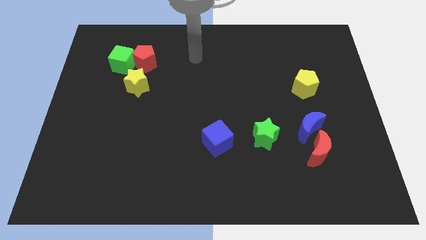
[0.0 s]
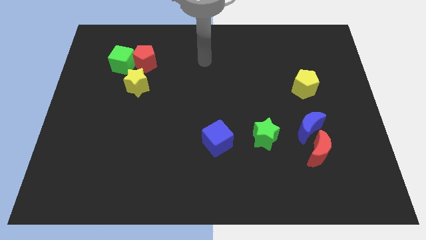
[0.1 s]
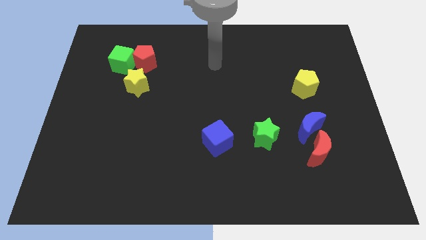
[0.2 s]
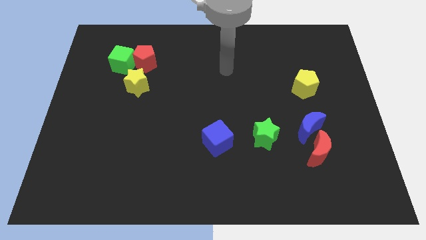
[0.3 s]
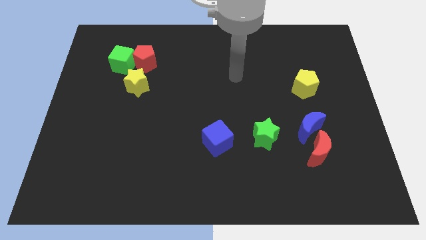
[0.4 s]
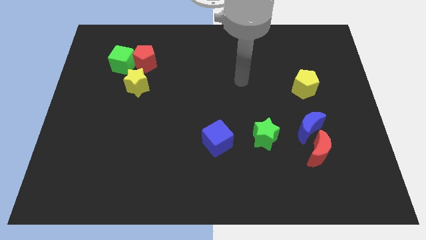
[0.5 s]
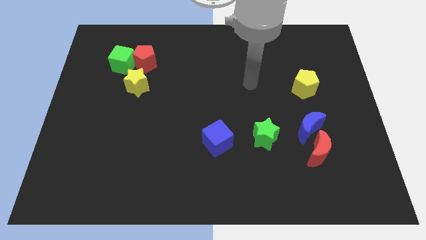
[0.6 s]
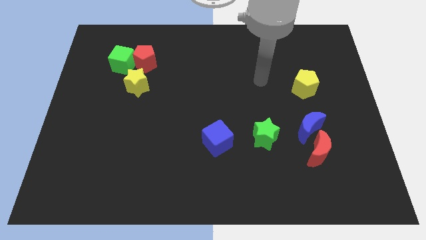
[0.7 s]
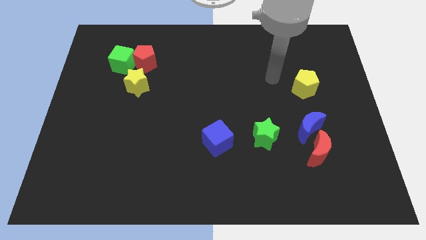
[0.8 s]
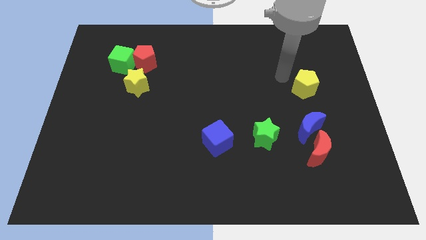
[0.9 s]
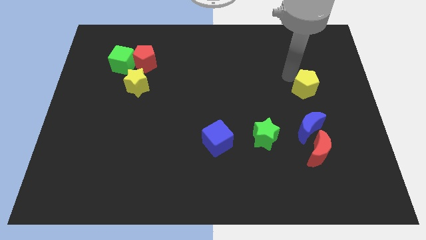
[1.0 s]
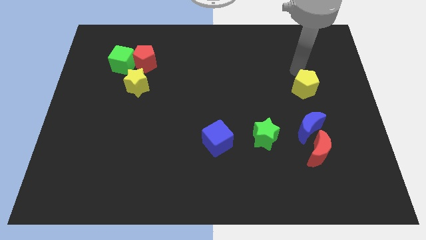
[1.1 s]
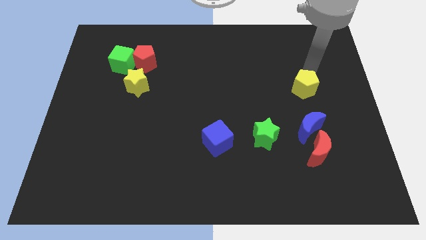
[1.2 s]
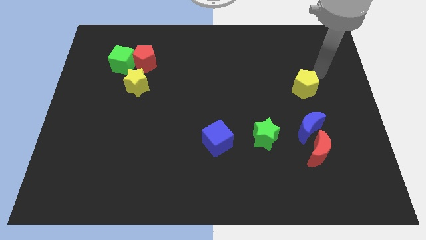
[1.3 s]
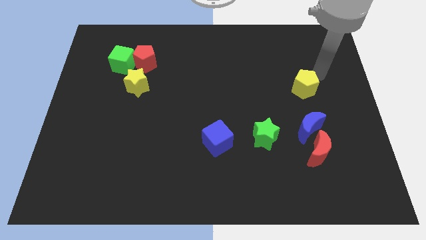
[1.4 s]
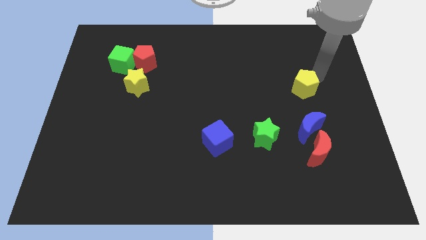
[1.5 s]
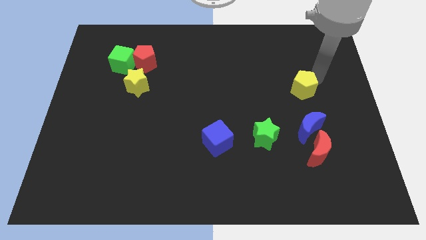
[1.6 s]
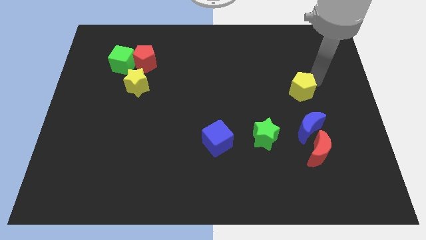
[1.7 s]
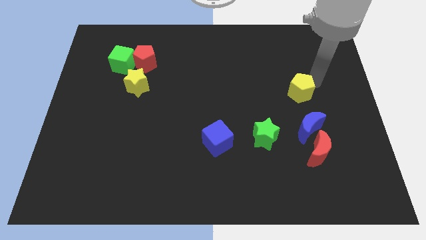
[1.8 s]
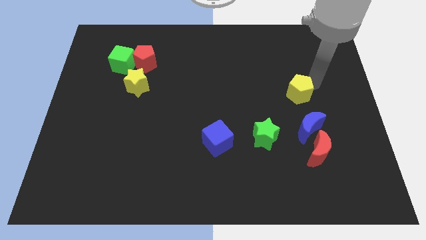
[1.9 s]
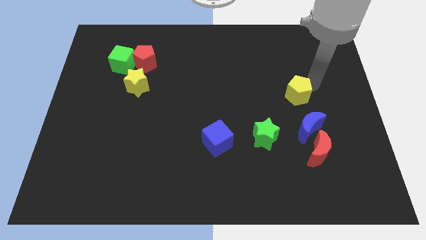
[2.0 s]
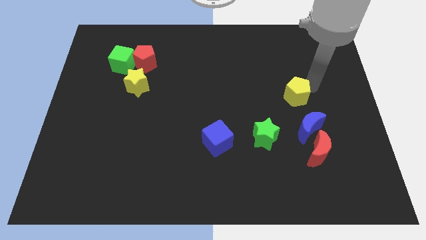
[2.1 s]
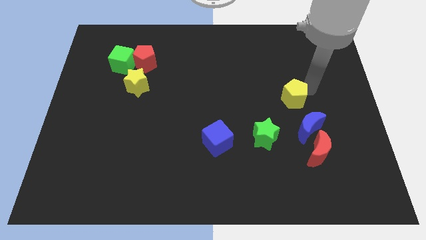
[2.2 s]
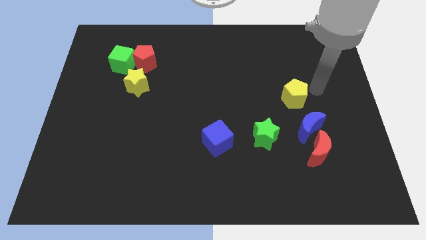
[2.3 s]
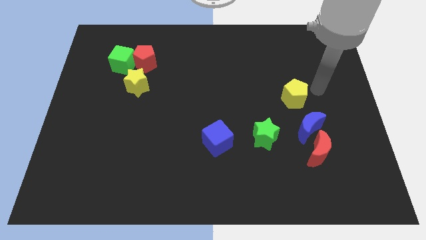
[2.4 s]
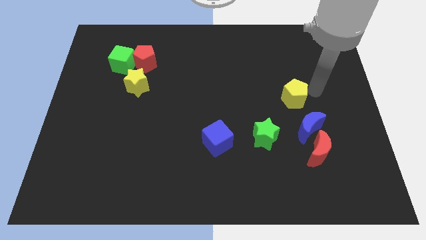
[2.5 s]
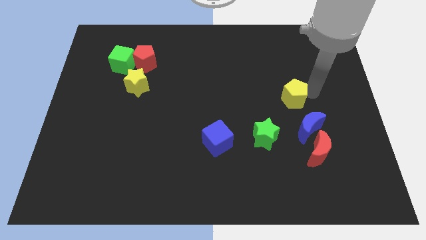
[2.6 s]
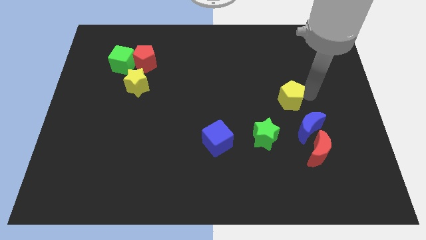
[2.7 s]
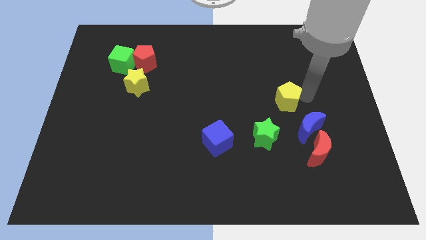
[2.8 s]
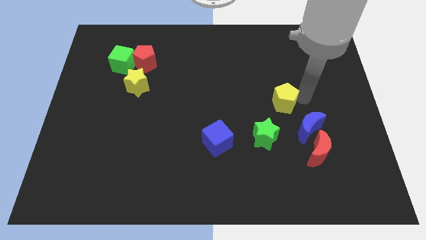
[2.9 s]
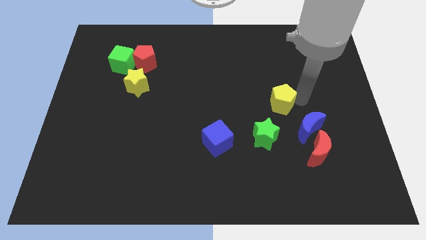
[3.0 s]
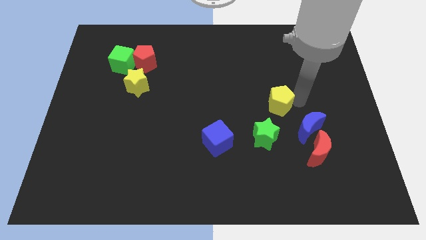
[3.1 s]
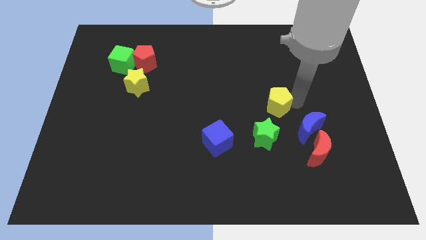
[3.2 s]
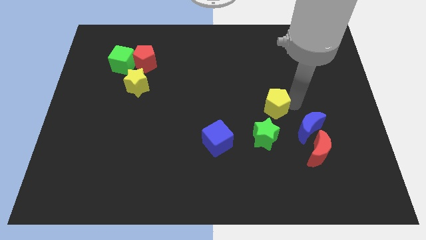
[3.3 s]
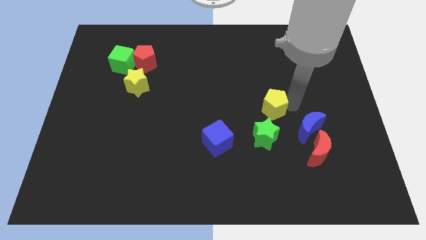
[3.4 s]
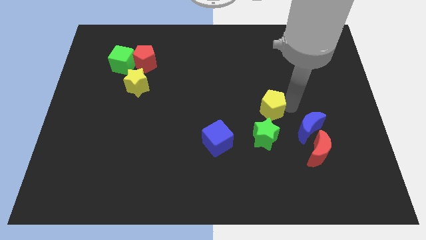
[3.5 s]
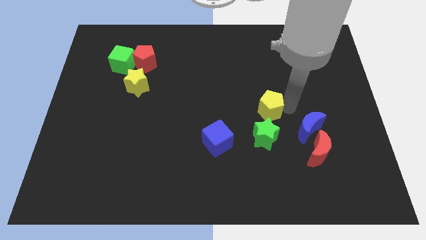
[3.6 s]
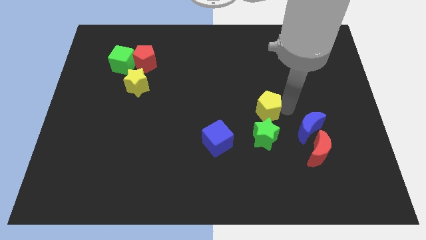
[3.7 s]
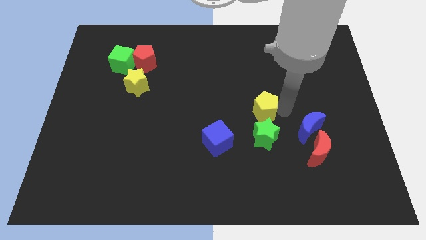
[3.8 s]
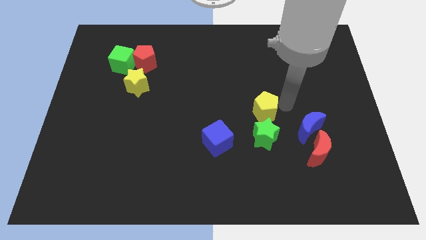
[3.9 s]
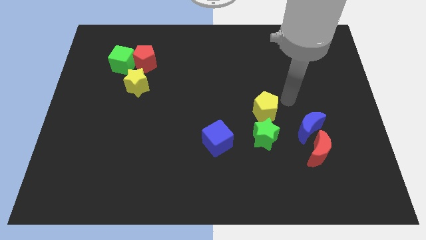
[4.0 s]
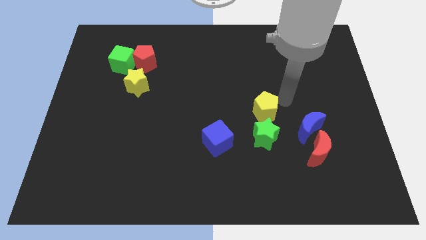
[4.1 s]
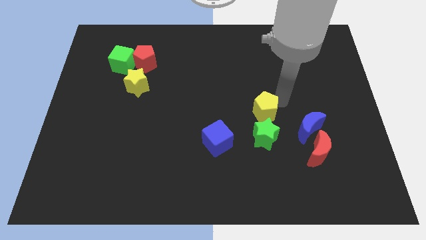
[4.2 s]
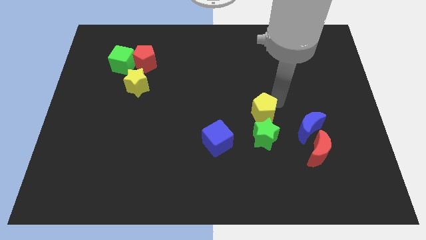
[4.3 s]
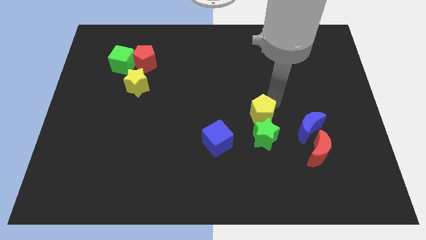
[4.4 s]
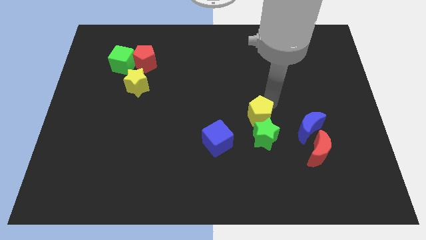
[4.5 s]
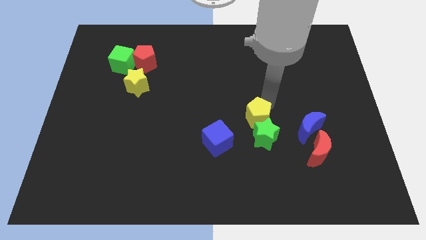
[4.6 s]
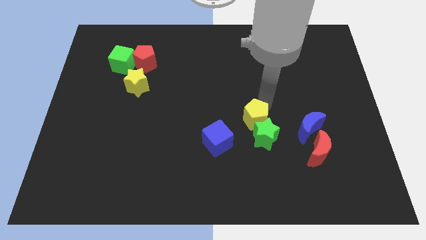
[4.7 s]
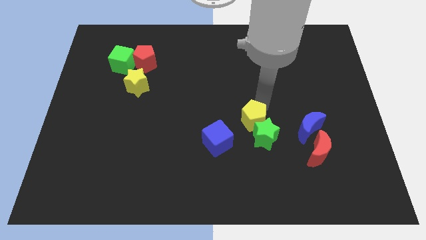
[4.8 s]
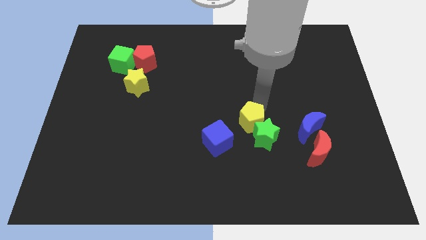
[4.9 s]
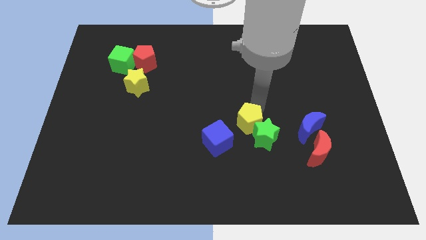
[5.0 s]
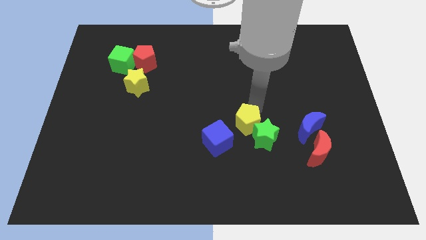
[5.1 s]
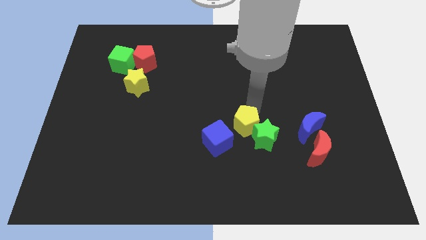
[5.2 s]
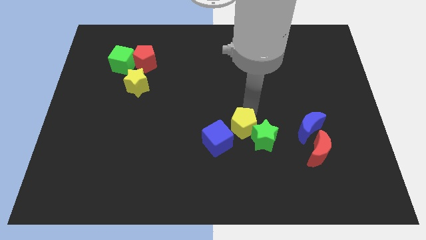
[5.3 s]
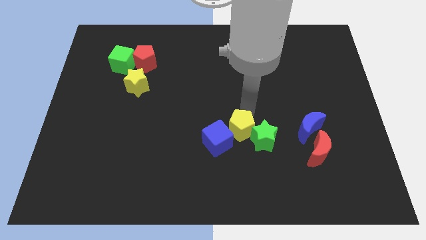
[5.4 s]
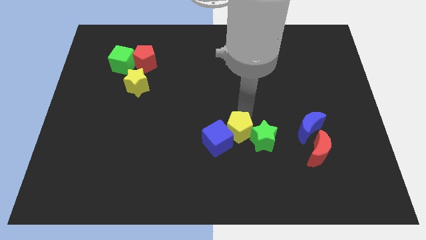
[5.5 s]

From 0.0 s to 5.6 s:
slide the yellow pentagon close to the blue cube

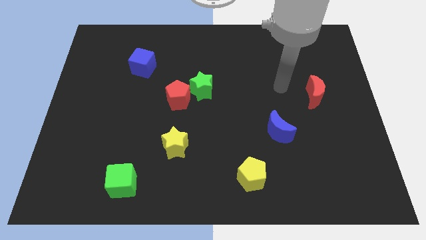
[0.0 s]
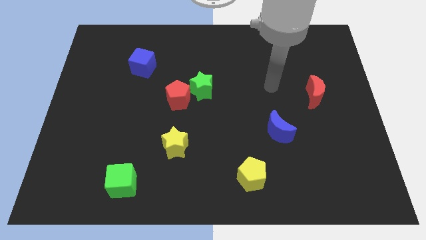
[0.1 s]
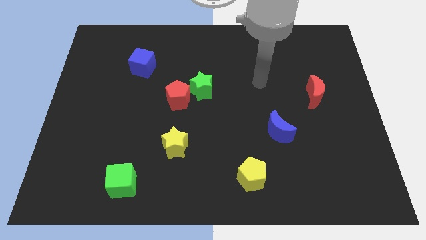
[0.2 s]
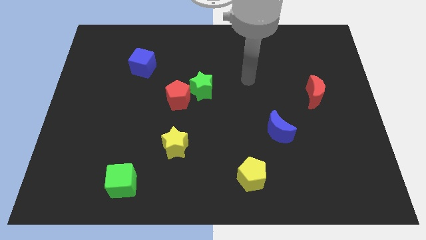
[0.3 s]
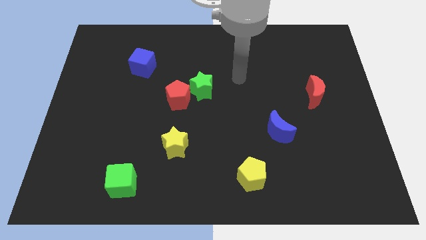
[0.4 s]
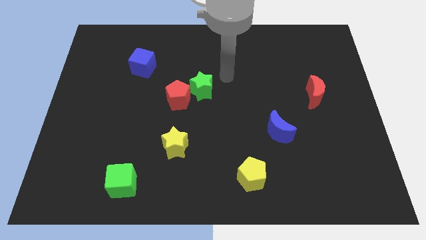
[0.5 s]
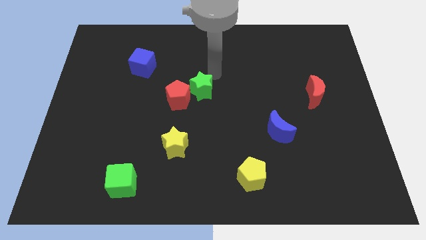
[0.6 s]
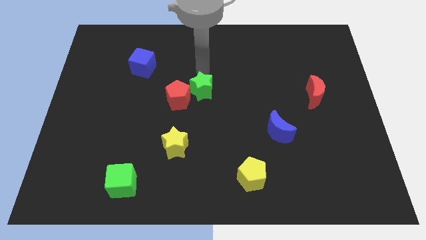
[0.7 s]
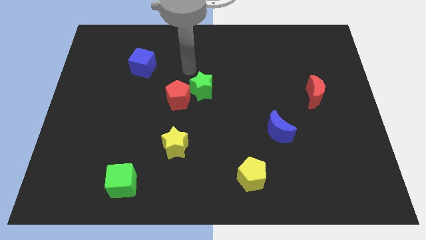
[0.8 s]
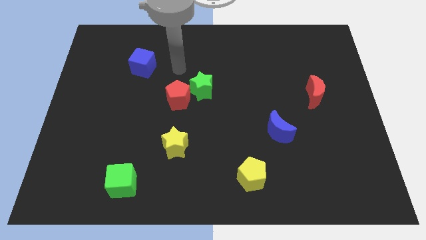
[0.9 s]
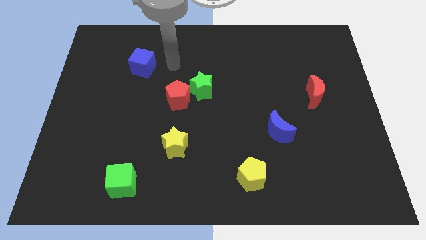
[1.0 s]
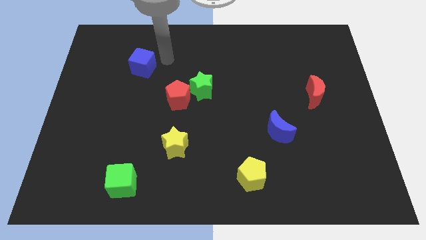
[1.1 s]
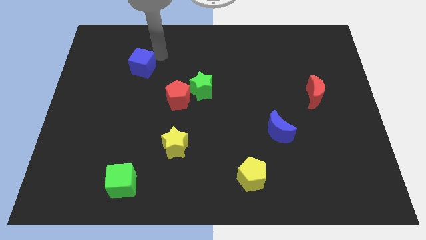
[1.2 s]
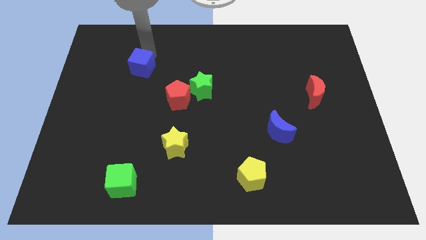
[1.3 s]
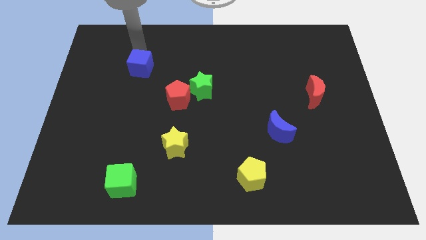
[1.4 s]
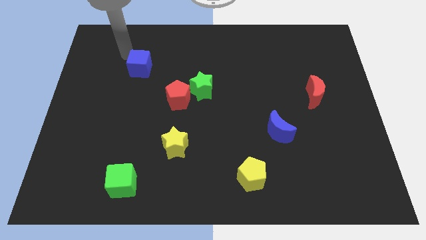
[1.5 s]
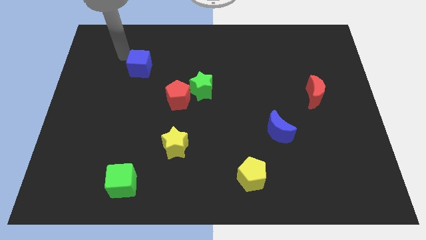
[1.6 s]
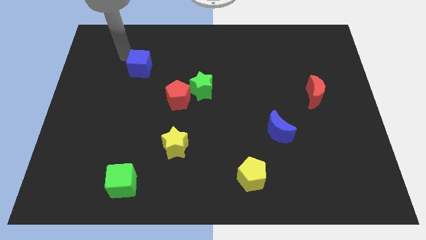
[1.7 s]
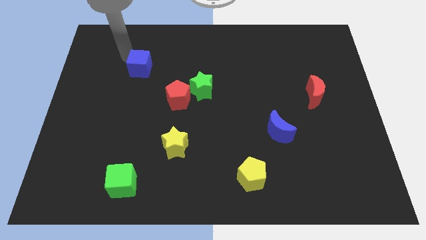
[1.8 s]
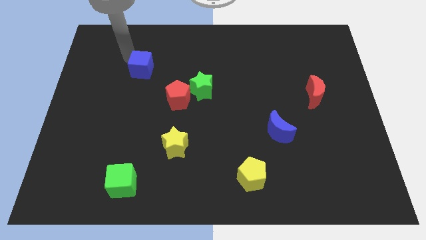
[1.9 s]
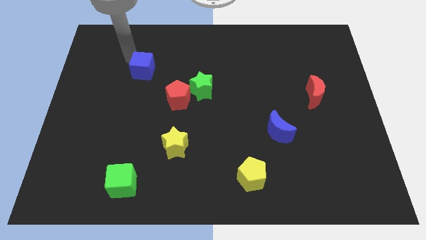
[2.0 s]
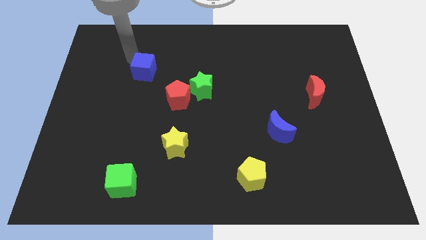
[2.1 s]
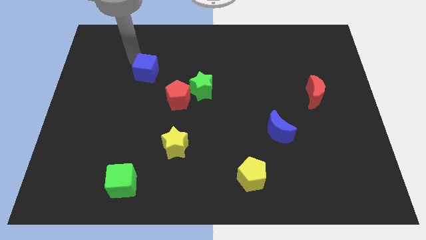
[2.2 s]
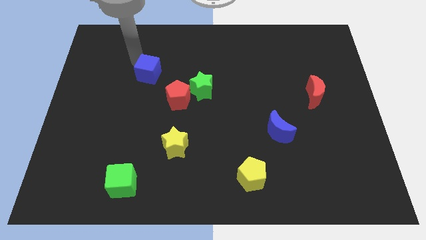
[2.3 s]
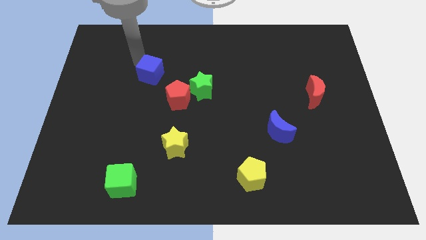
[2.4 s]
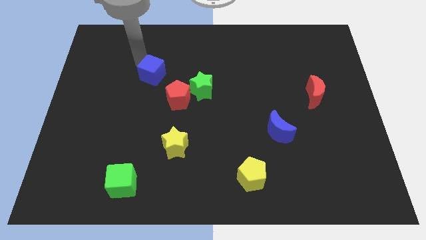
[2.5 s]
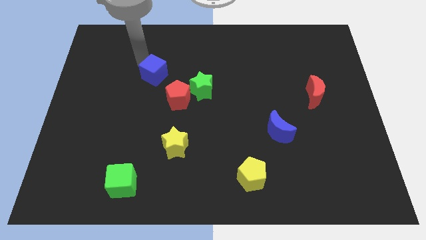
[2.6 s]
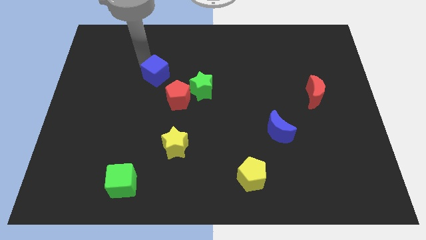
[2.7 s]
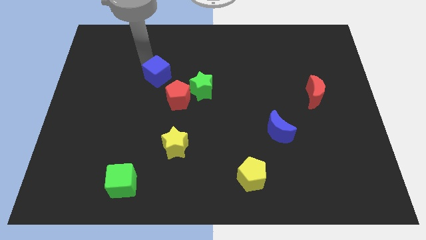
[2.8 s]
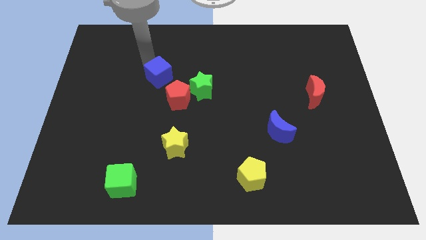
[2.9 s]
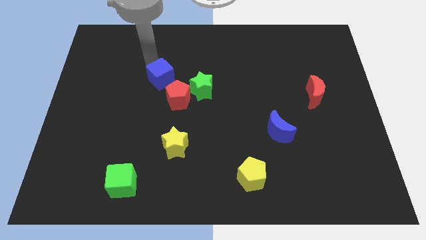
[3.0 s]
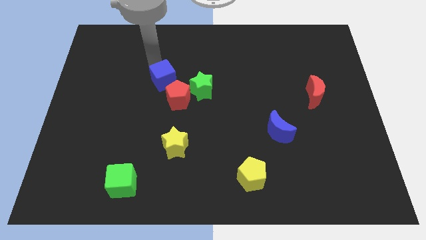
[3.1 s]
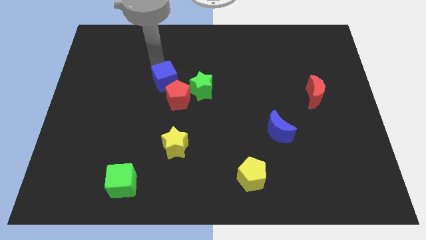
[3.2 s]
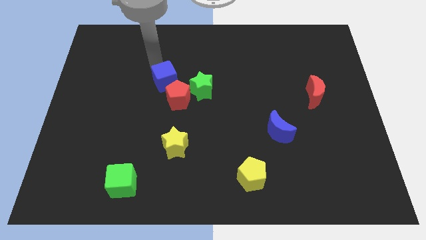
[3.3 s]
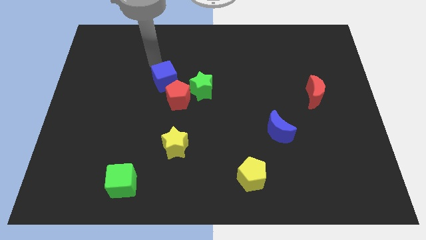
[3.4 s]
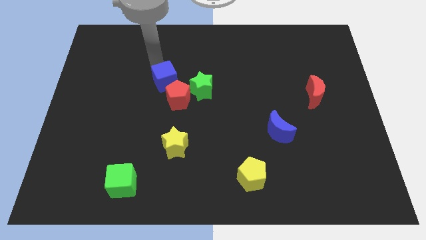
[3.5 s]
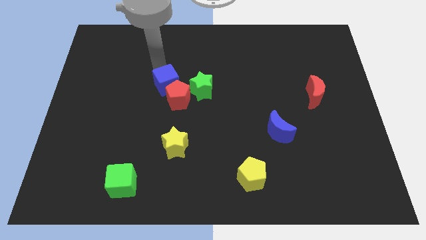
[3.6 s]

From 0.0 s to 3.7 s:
put the blue cube towards the red pentagon
